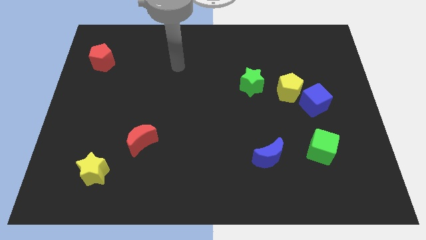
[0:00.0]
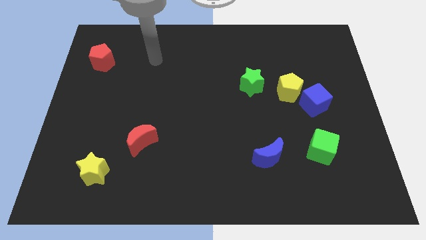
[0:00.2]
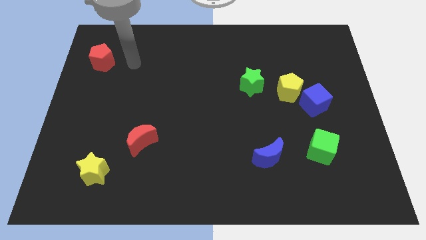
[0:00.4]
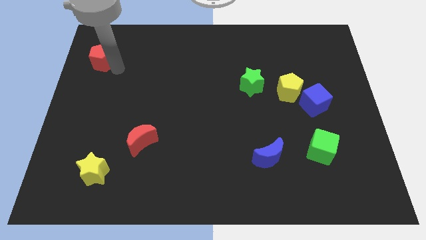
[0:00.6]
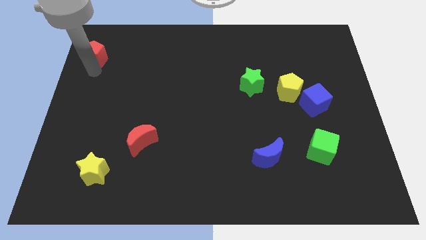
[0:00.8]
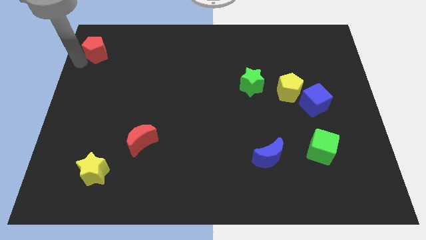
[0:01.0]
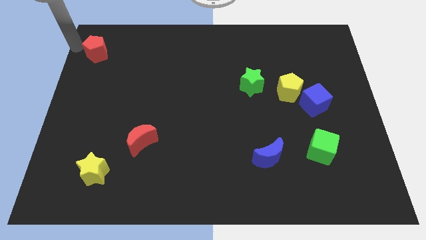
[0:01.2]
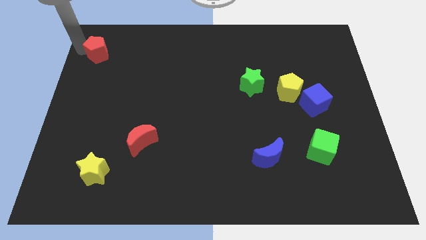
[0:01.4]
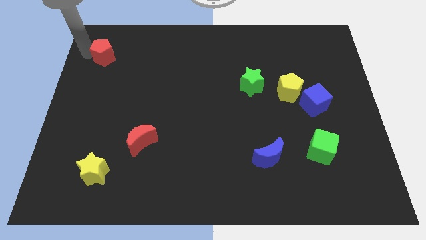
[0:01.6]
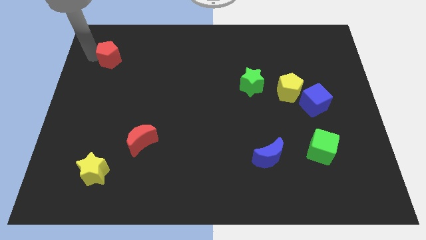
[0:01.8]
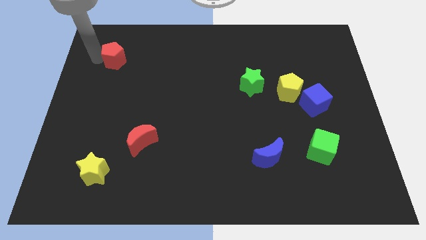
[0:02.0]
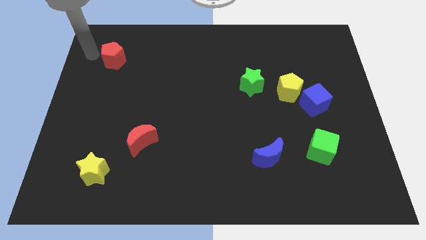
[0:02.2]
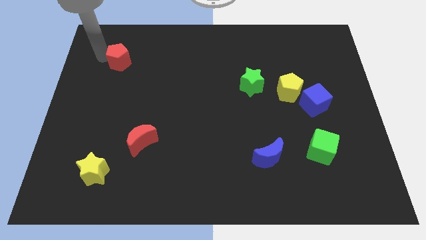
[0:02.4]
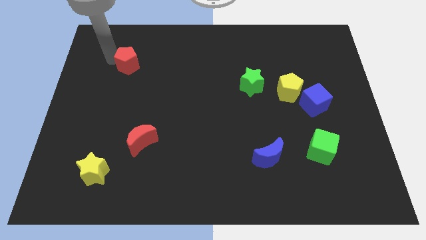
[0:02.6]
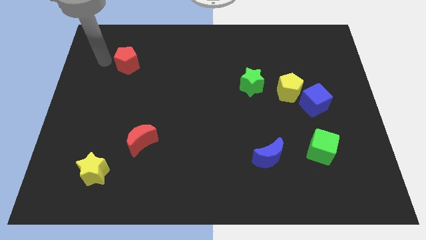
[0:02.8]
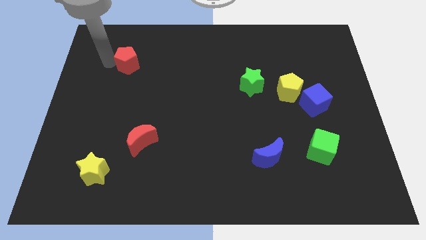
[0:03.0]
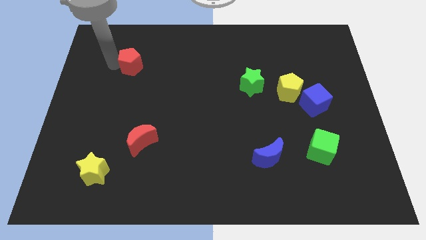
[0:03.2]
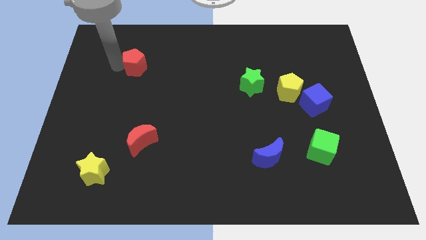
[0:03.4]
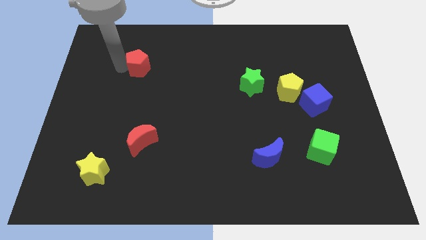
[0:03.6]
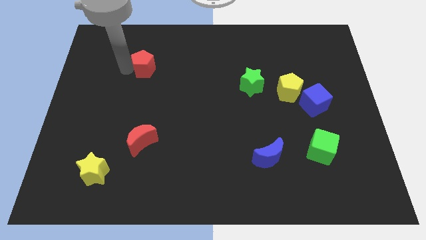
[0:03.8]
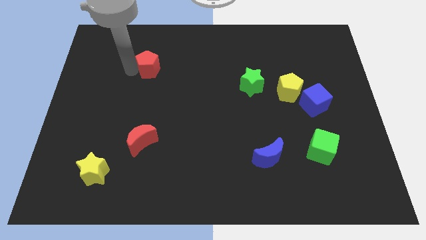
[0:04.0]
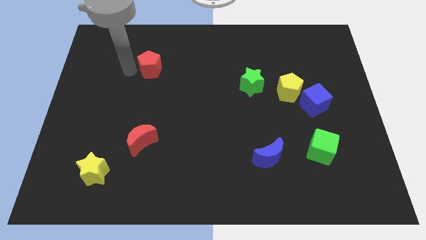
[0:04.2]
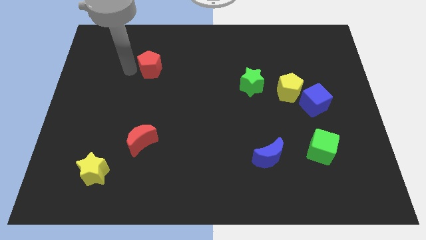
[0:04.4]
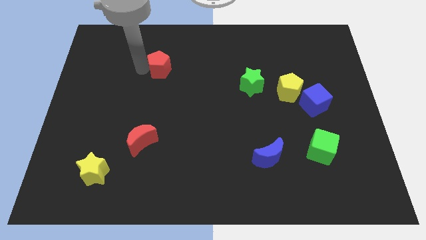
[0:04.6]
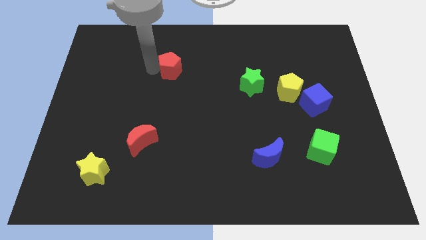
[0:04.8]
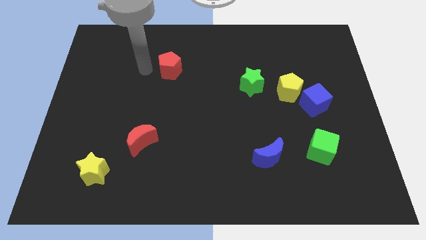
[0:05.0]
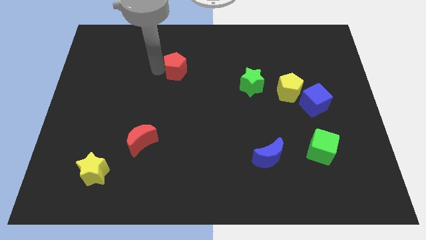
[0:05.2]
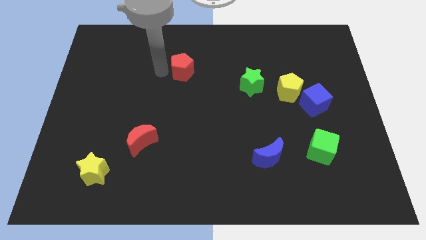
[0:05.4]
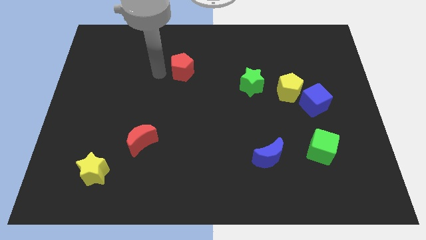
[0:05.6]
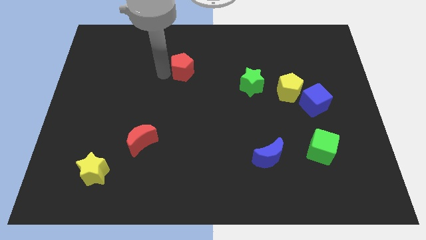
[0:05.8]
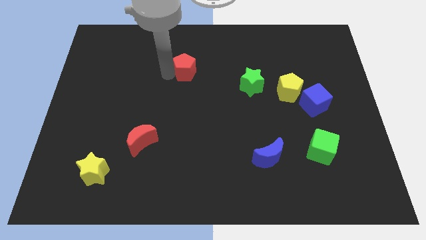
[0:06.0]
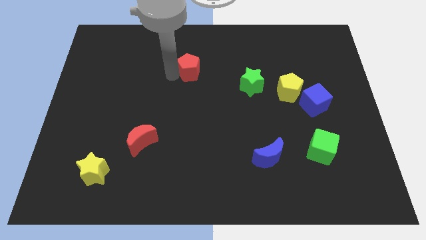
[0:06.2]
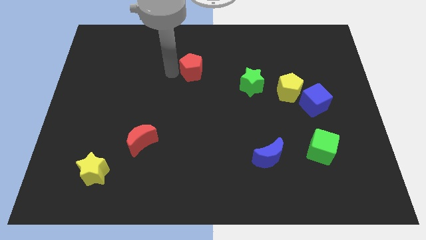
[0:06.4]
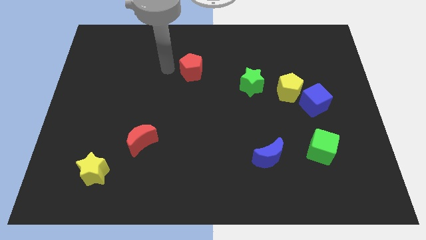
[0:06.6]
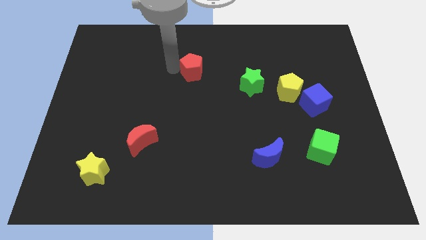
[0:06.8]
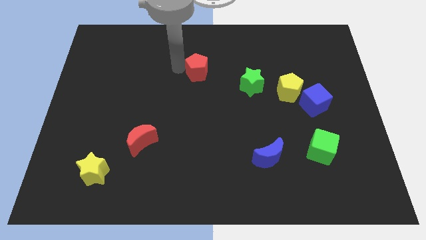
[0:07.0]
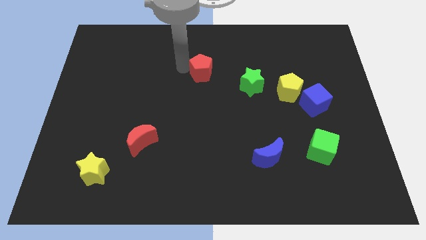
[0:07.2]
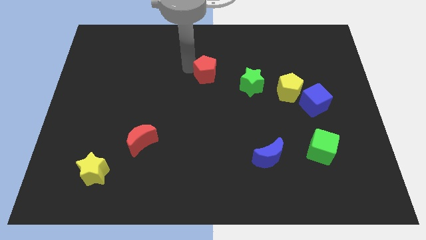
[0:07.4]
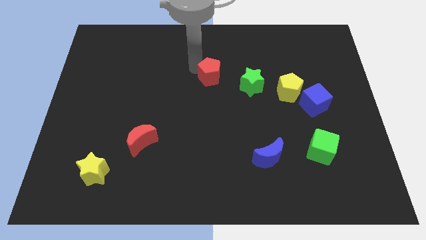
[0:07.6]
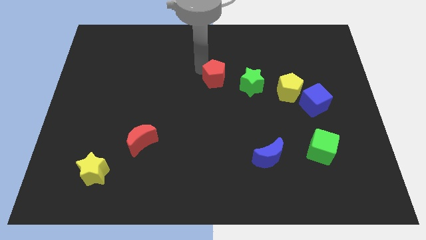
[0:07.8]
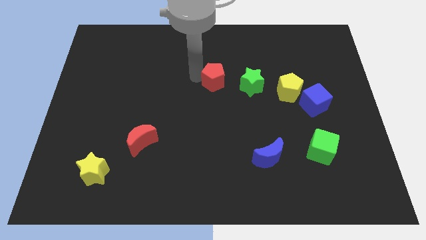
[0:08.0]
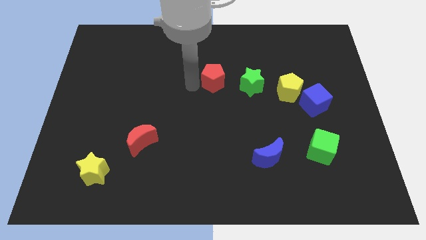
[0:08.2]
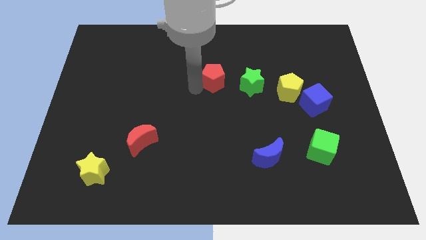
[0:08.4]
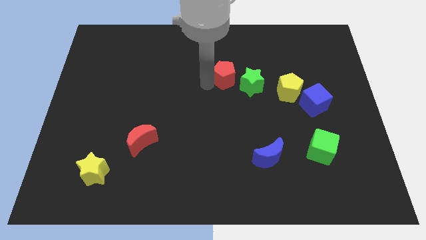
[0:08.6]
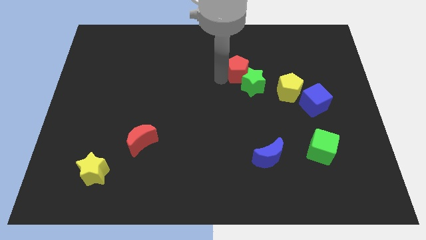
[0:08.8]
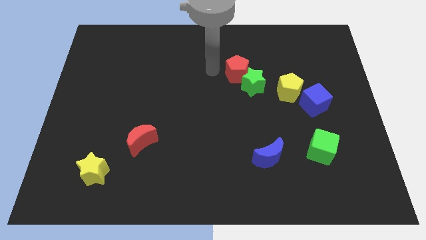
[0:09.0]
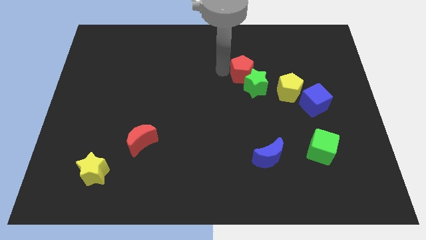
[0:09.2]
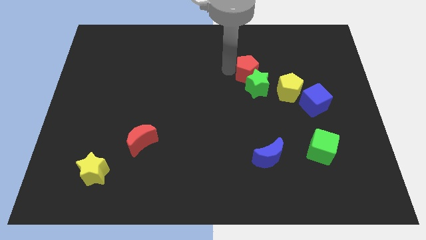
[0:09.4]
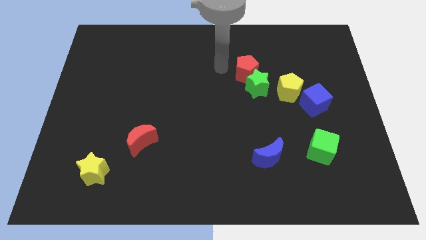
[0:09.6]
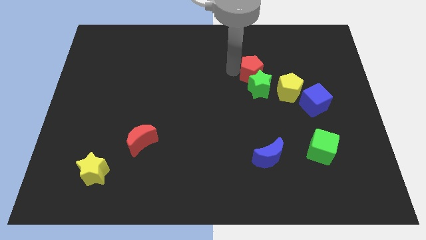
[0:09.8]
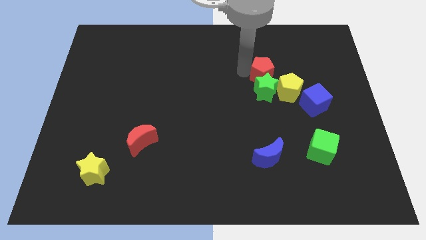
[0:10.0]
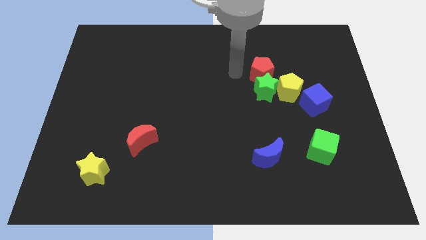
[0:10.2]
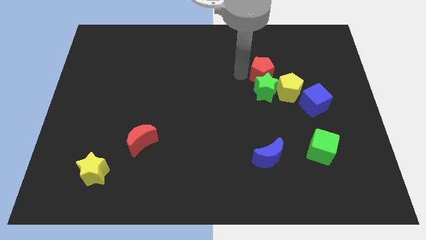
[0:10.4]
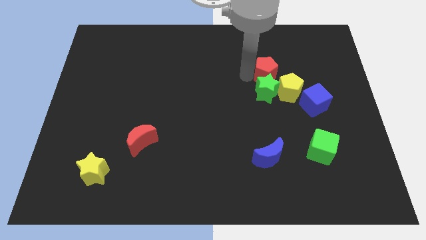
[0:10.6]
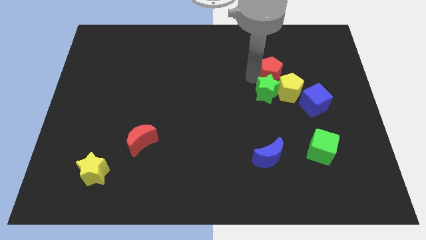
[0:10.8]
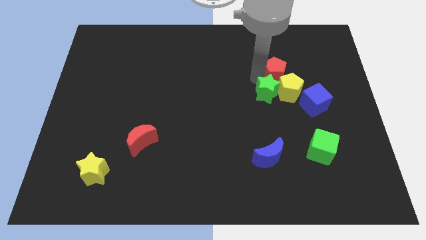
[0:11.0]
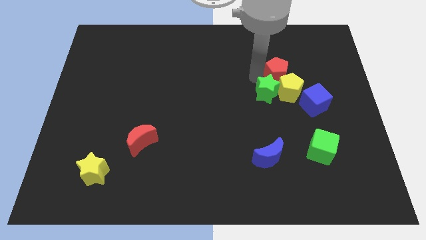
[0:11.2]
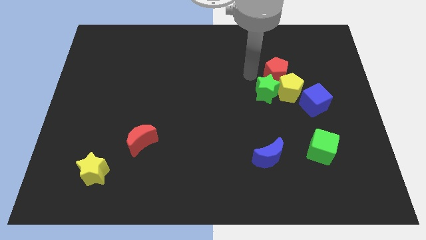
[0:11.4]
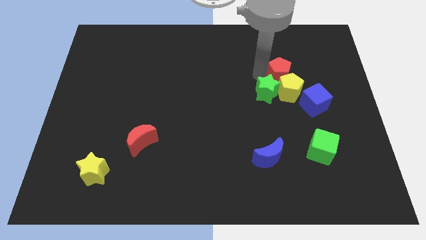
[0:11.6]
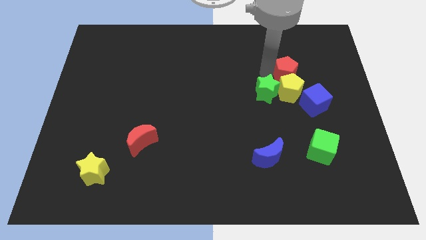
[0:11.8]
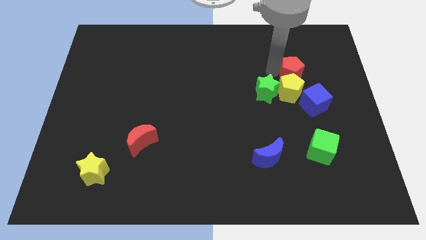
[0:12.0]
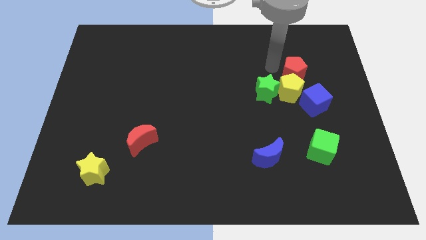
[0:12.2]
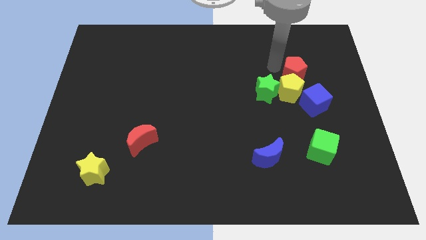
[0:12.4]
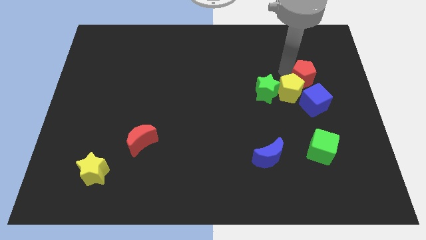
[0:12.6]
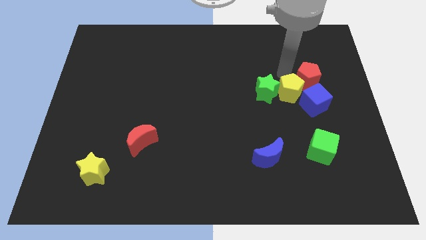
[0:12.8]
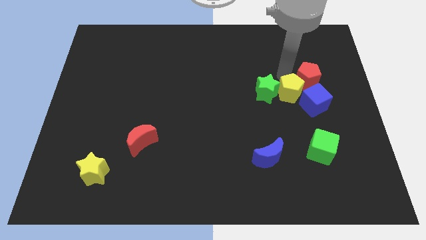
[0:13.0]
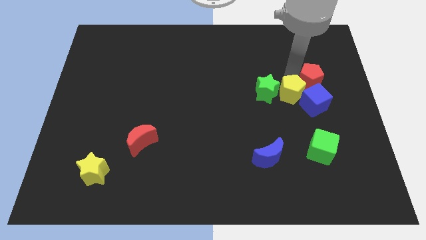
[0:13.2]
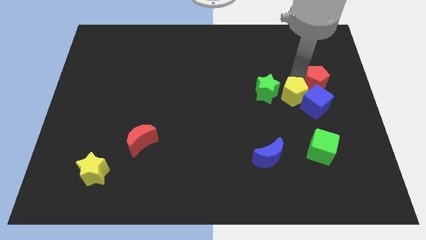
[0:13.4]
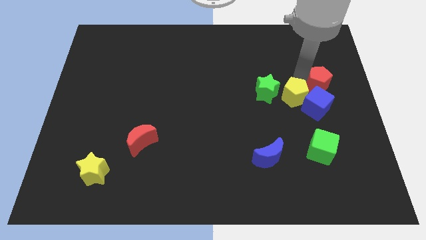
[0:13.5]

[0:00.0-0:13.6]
slide the red pentagon to the right side of the board

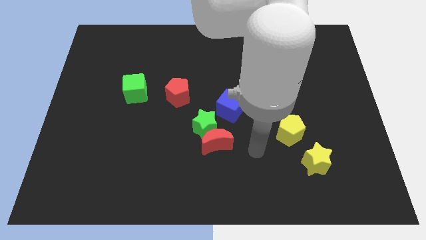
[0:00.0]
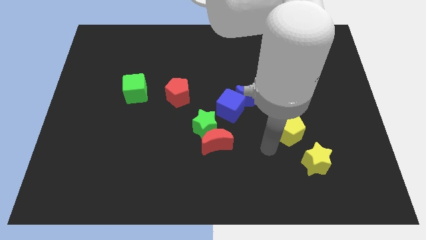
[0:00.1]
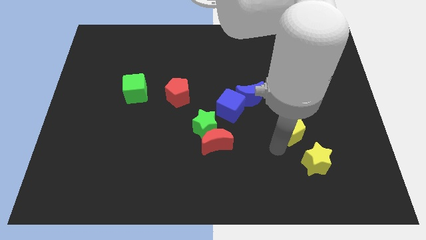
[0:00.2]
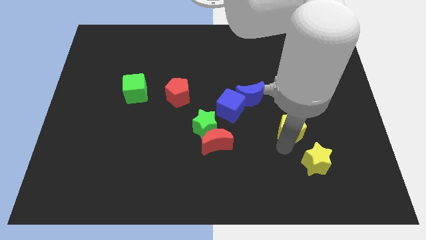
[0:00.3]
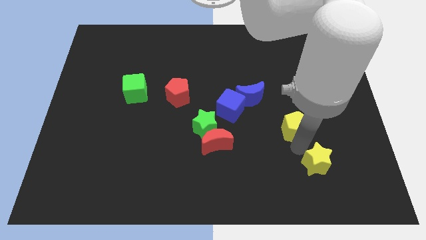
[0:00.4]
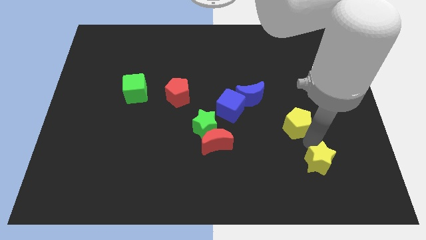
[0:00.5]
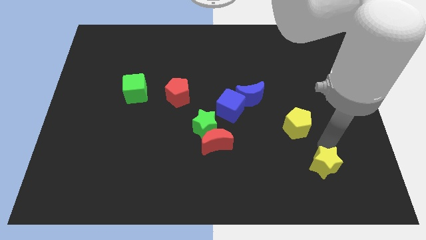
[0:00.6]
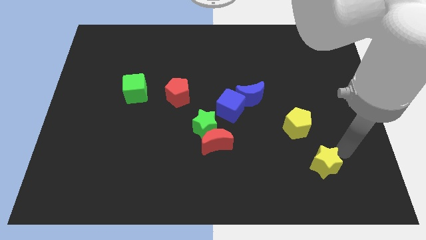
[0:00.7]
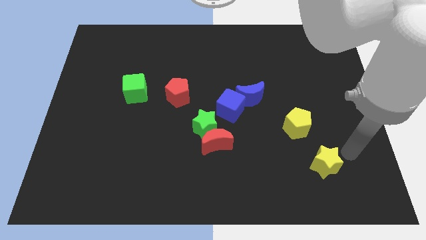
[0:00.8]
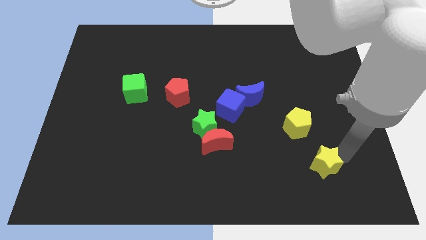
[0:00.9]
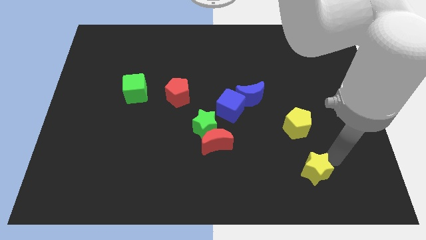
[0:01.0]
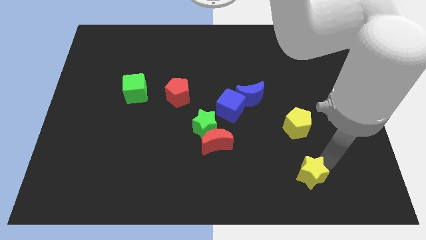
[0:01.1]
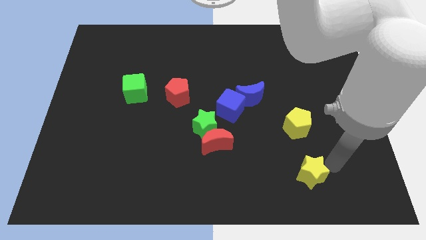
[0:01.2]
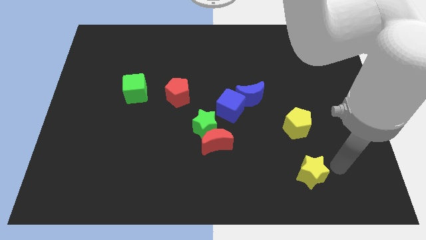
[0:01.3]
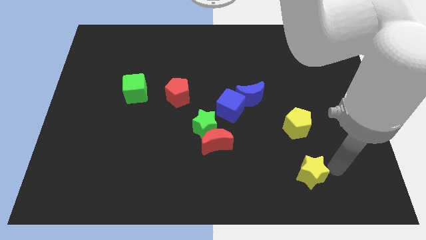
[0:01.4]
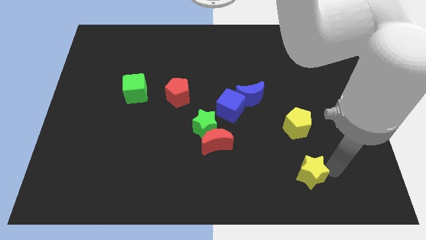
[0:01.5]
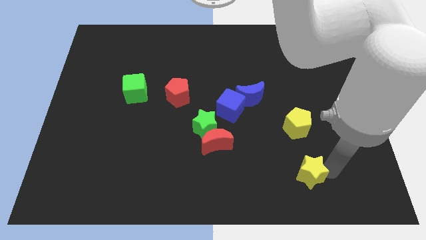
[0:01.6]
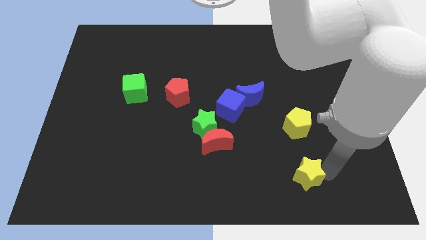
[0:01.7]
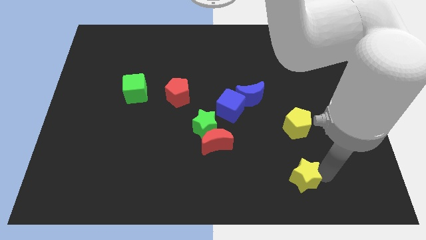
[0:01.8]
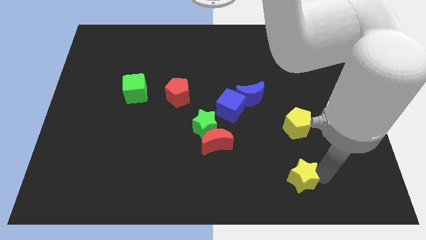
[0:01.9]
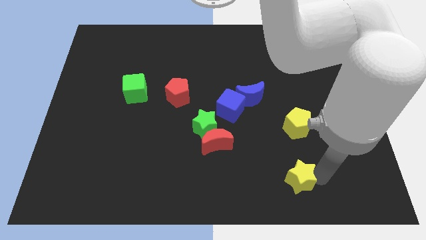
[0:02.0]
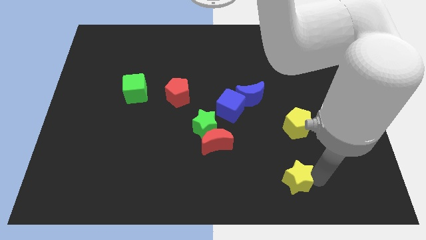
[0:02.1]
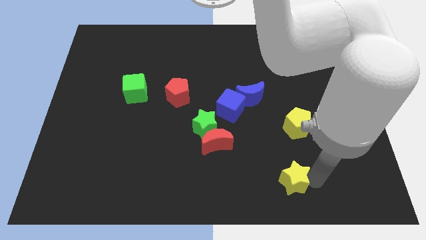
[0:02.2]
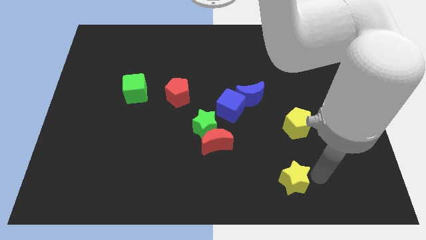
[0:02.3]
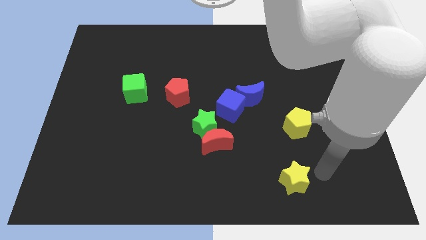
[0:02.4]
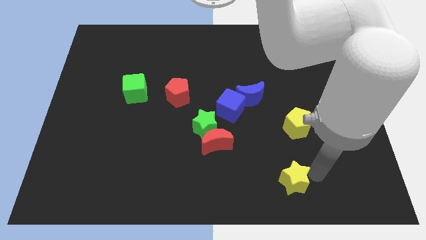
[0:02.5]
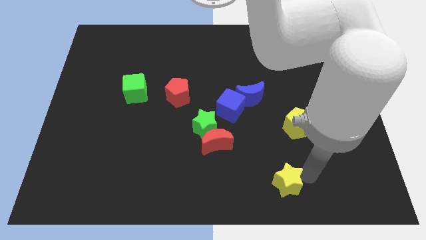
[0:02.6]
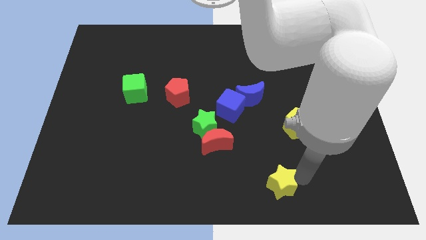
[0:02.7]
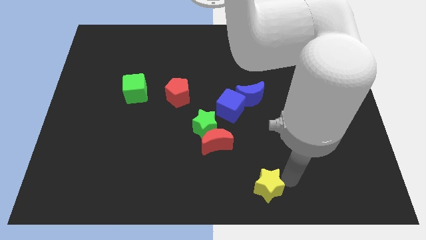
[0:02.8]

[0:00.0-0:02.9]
push the yellow star to the bottom side
